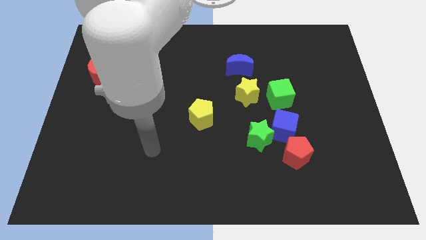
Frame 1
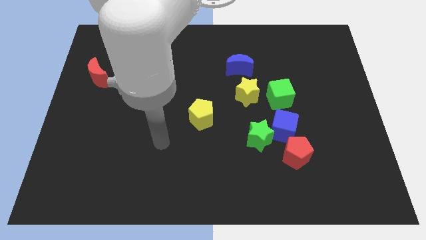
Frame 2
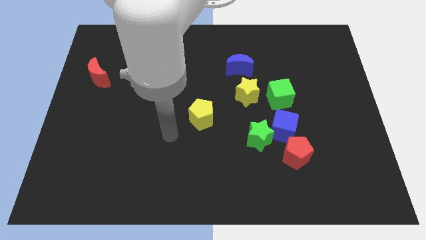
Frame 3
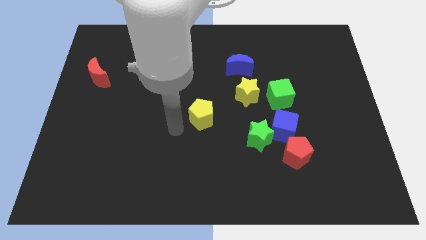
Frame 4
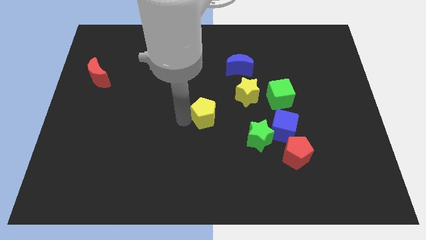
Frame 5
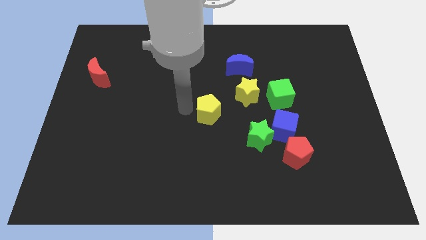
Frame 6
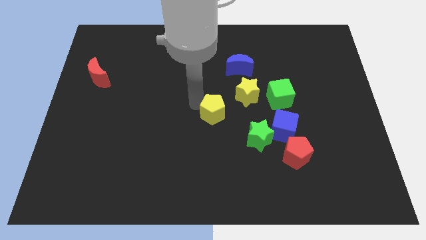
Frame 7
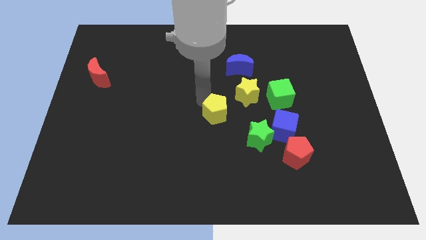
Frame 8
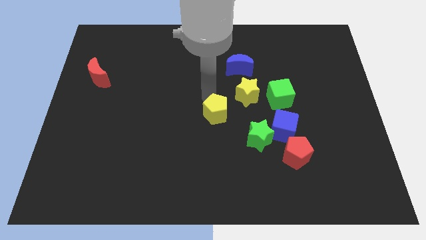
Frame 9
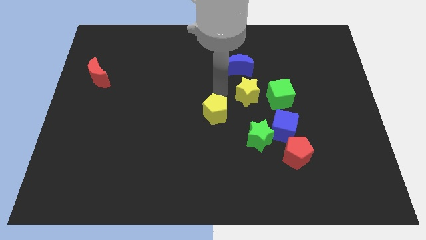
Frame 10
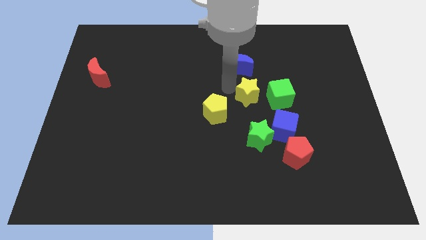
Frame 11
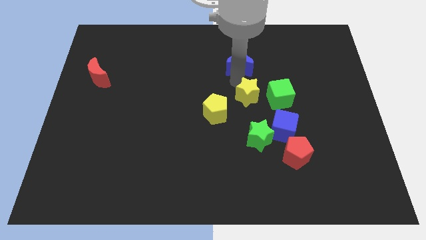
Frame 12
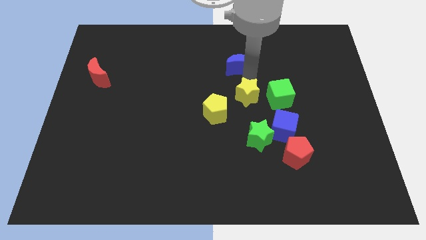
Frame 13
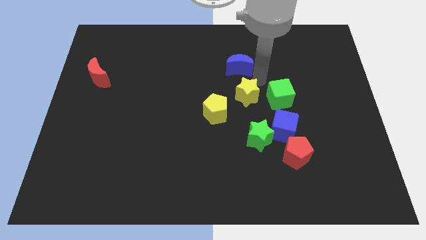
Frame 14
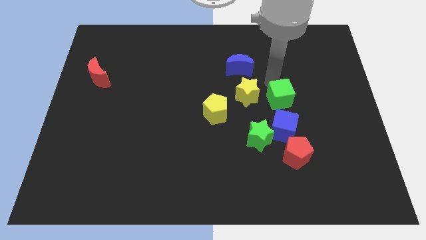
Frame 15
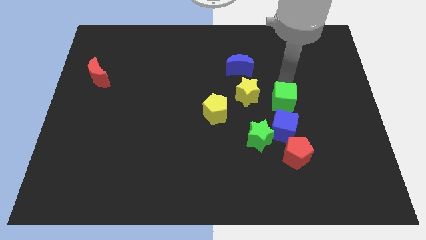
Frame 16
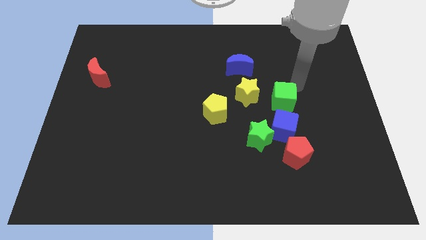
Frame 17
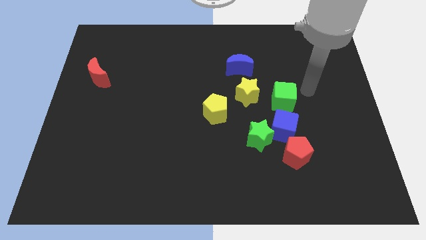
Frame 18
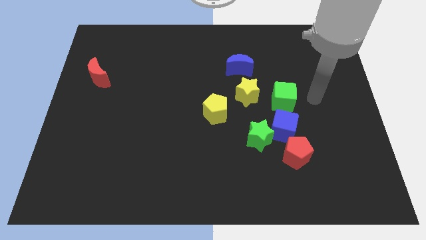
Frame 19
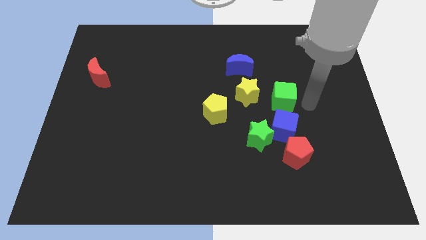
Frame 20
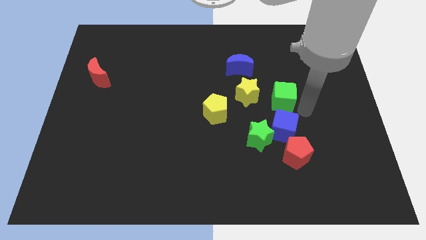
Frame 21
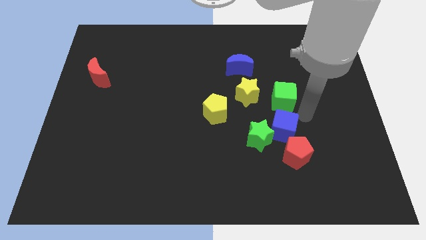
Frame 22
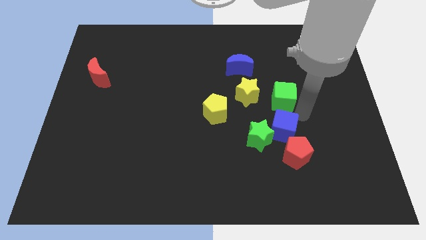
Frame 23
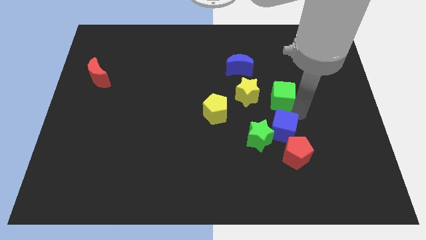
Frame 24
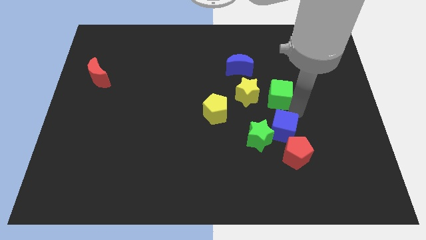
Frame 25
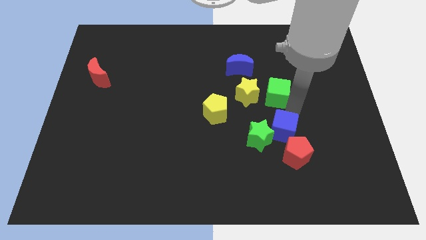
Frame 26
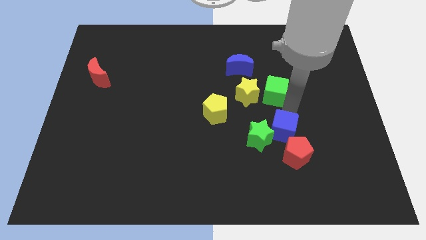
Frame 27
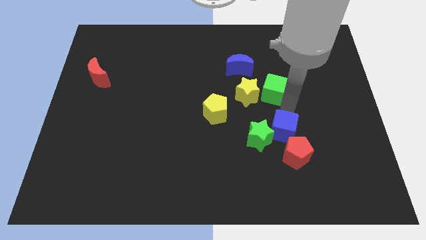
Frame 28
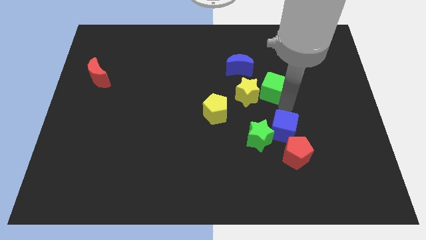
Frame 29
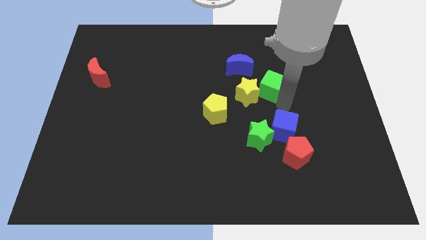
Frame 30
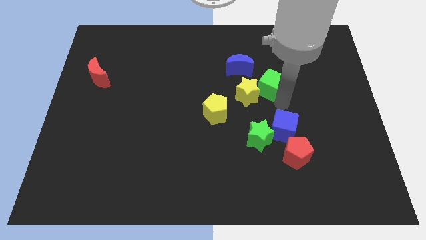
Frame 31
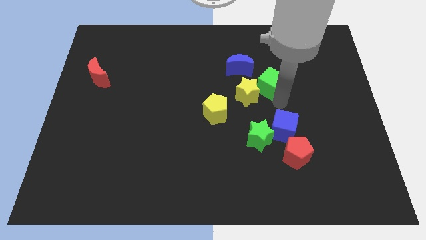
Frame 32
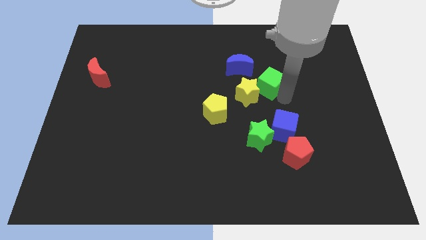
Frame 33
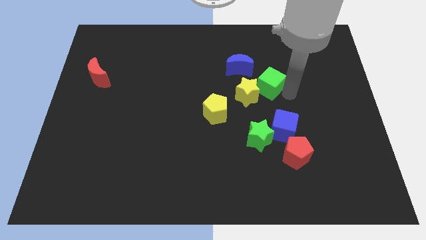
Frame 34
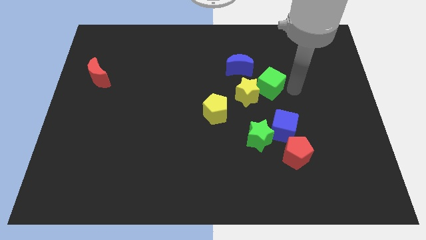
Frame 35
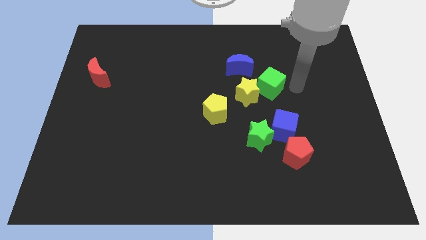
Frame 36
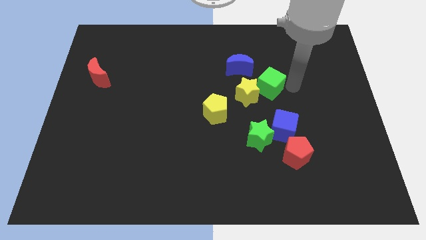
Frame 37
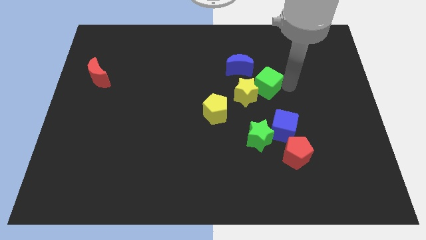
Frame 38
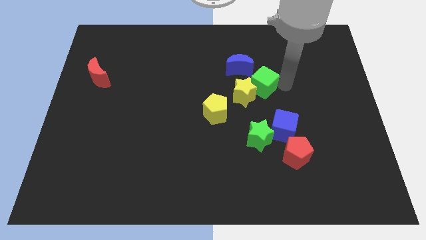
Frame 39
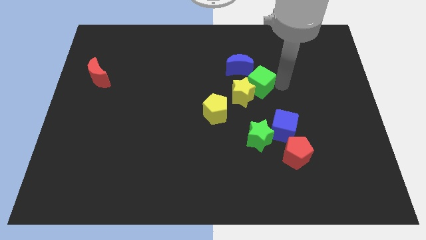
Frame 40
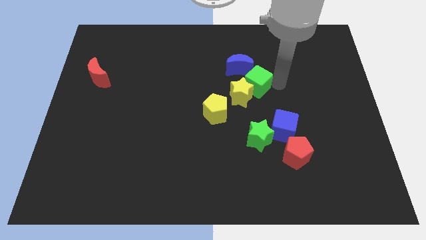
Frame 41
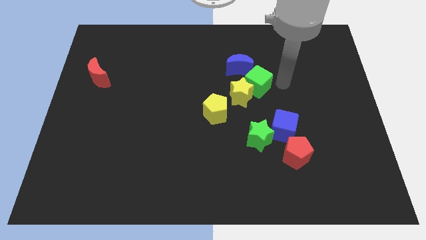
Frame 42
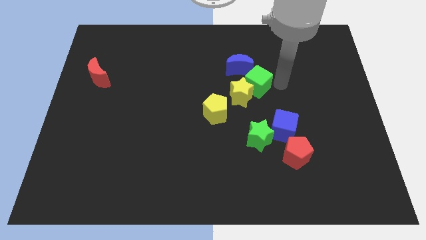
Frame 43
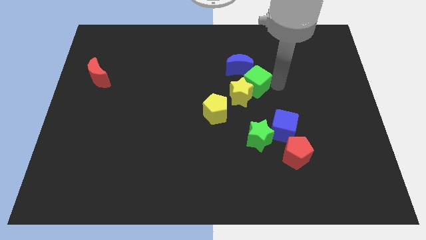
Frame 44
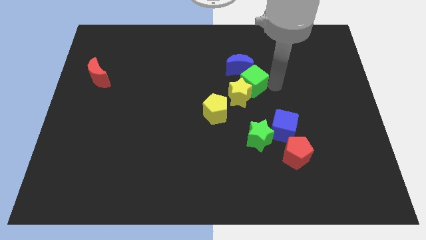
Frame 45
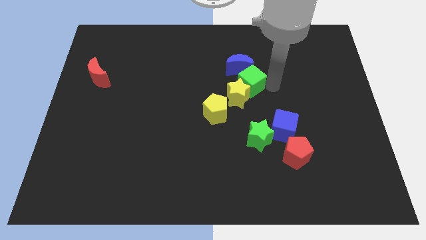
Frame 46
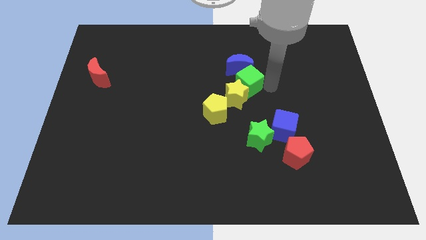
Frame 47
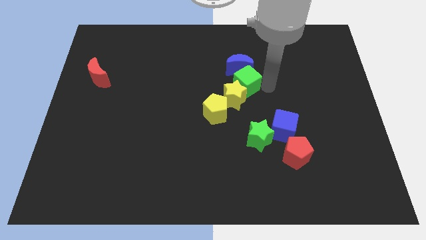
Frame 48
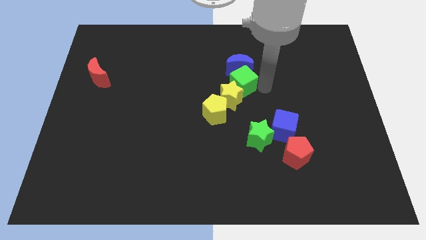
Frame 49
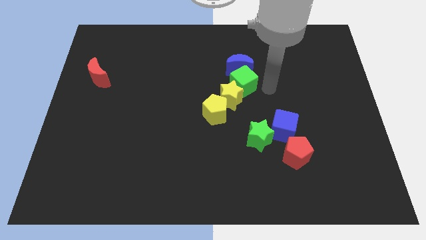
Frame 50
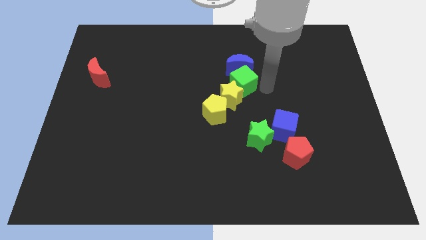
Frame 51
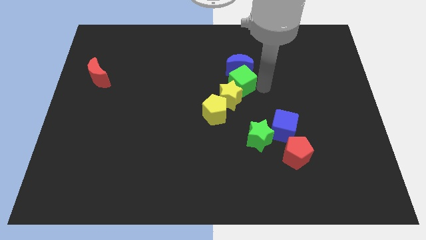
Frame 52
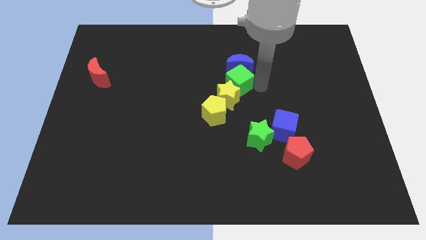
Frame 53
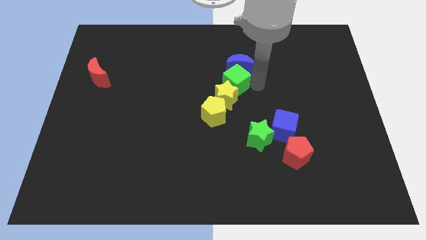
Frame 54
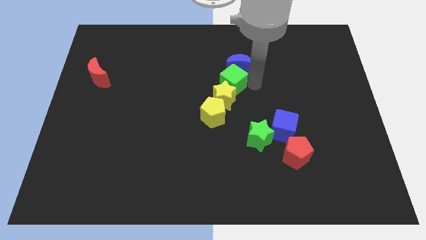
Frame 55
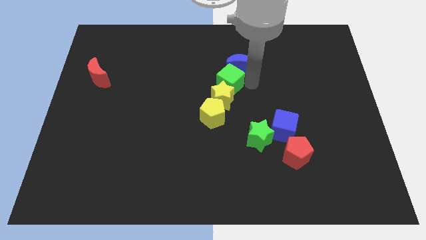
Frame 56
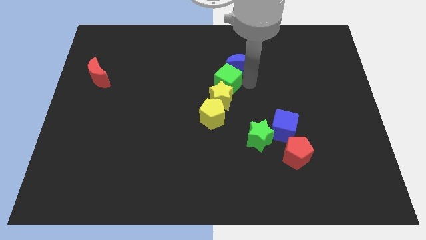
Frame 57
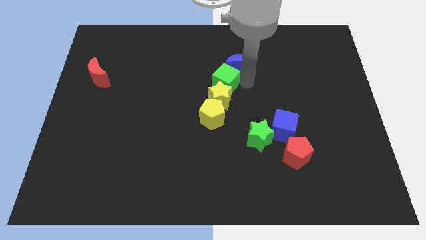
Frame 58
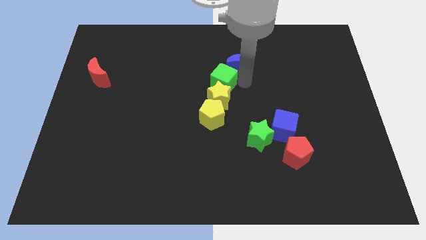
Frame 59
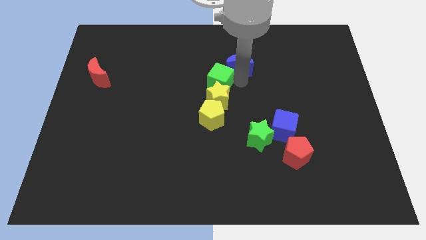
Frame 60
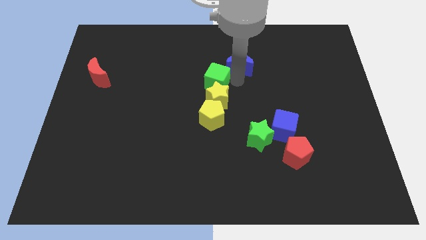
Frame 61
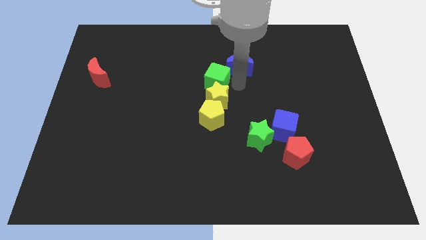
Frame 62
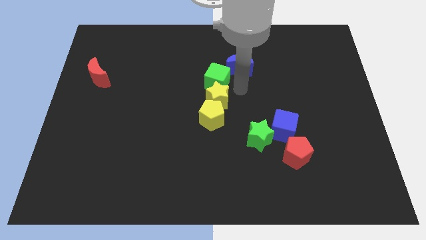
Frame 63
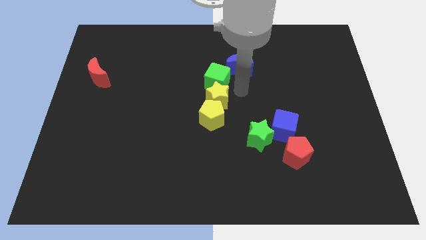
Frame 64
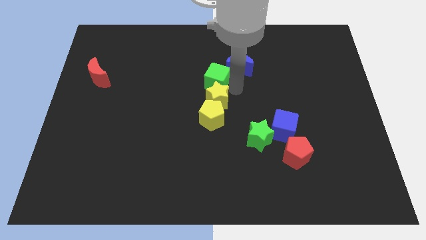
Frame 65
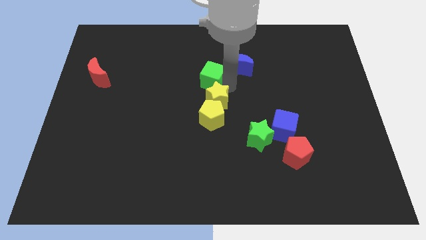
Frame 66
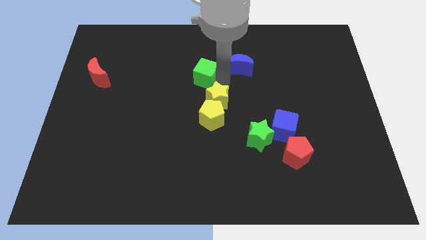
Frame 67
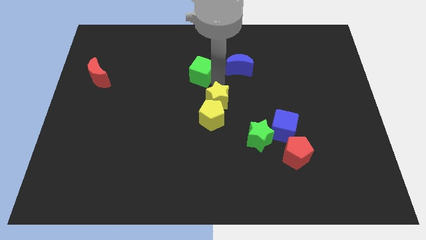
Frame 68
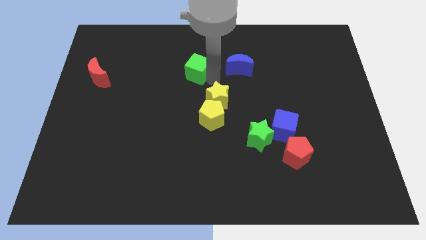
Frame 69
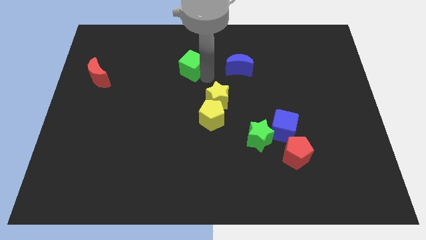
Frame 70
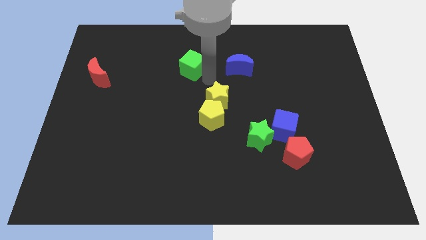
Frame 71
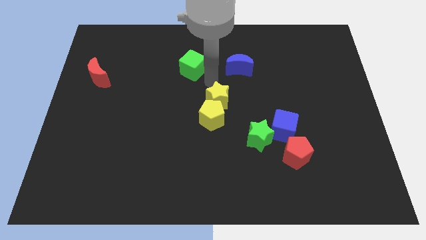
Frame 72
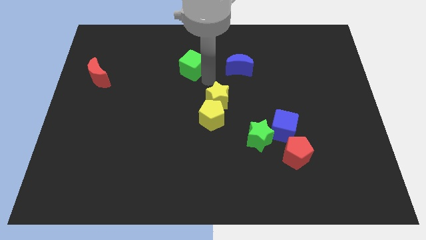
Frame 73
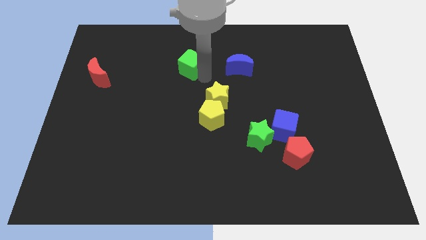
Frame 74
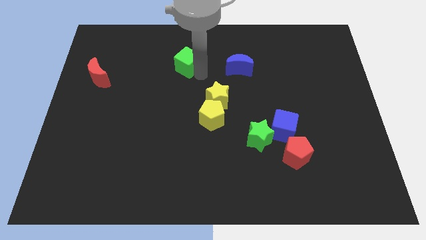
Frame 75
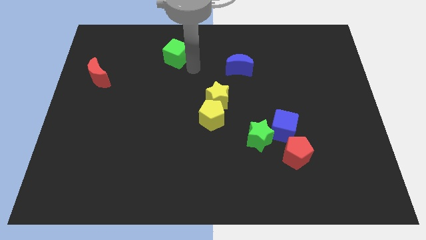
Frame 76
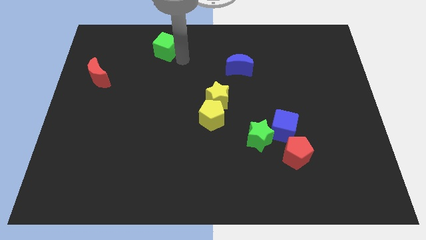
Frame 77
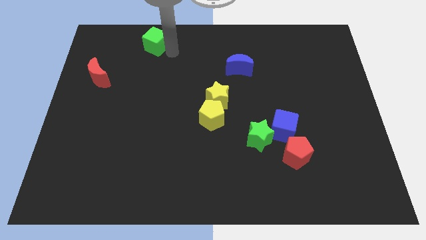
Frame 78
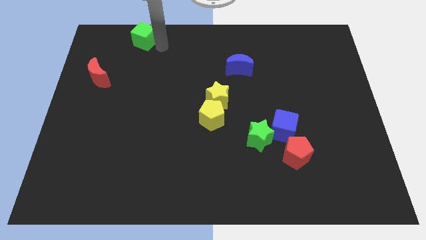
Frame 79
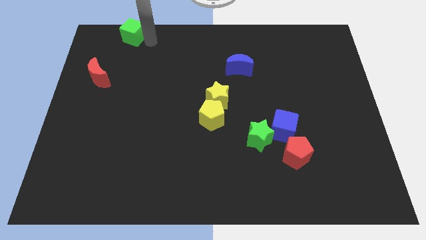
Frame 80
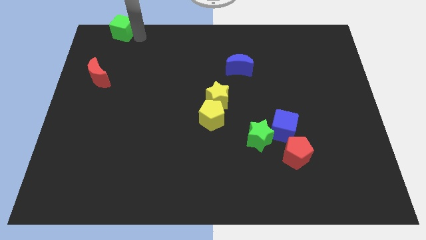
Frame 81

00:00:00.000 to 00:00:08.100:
move the green cube to the top left corner

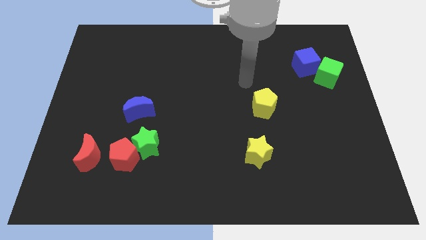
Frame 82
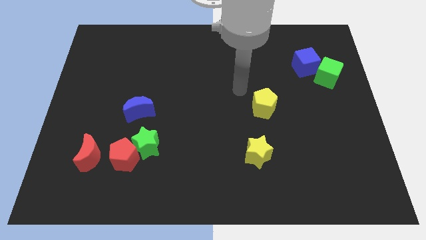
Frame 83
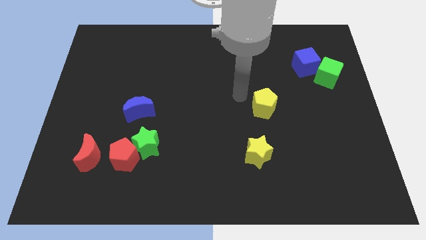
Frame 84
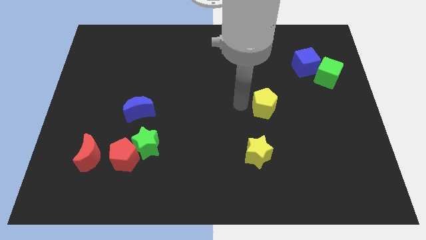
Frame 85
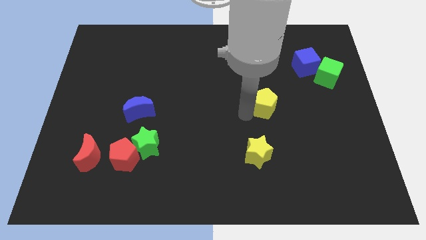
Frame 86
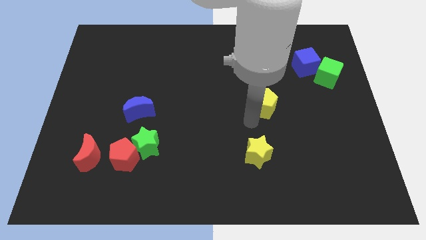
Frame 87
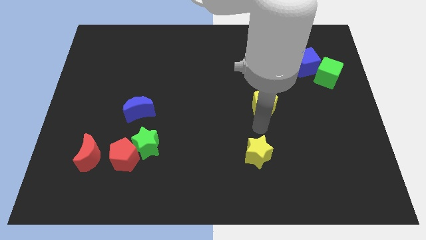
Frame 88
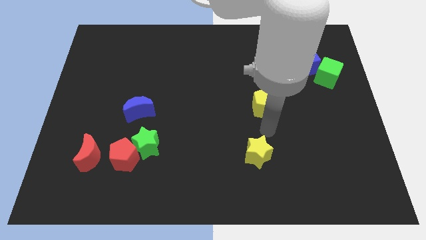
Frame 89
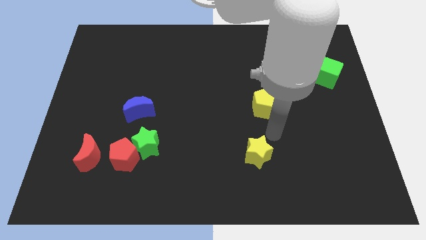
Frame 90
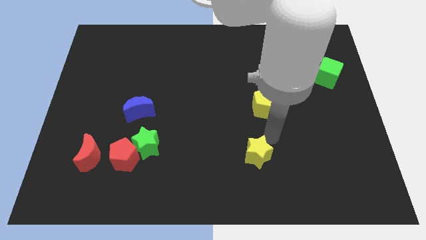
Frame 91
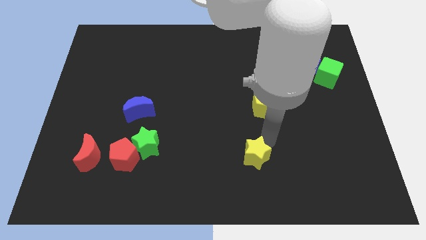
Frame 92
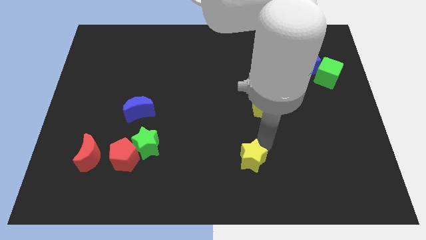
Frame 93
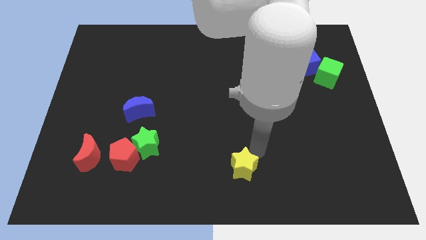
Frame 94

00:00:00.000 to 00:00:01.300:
move the yellow star to the bottom side
